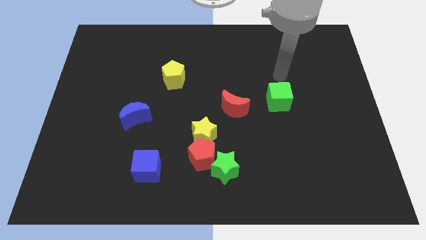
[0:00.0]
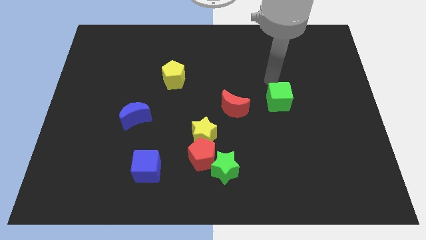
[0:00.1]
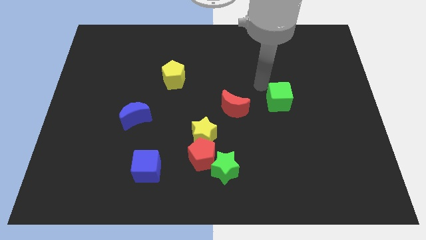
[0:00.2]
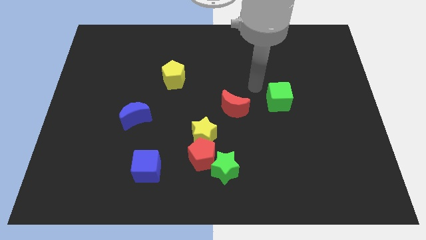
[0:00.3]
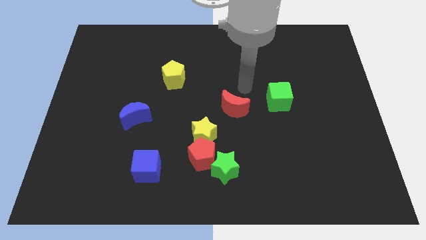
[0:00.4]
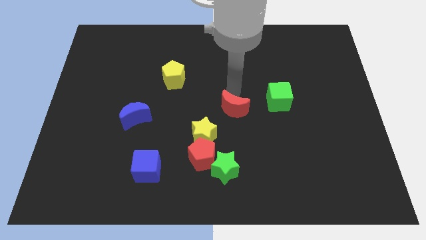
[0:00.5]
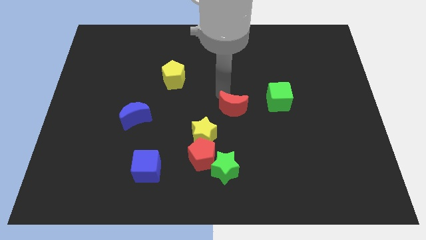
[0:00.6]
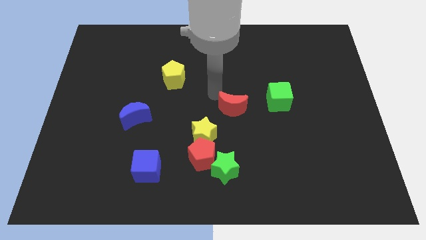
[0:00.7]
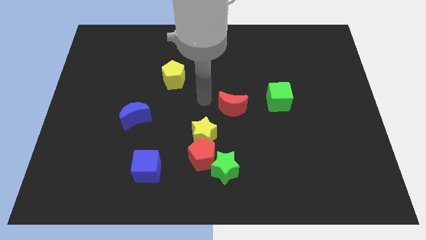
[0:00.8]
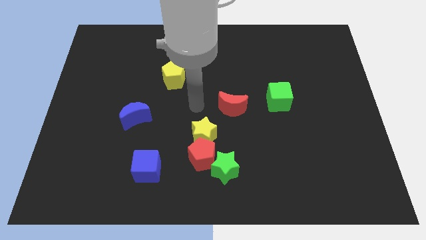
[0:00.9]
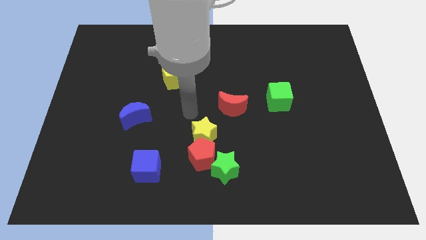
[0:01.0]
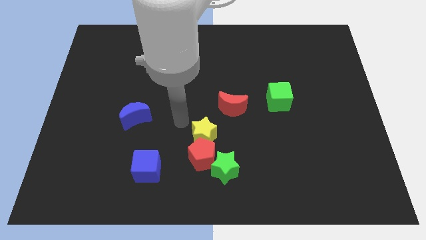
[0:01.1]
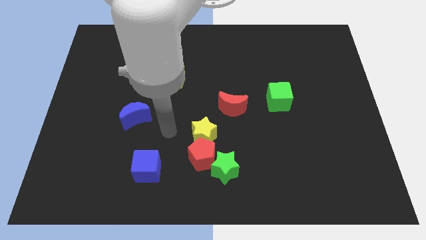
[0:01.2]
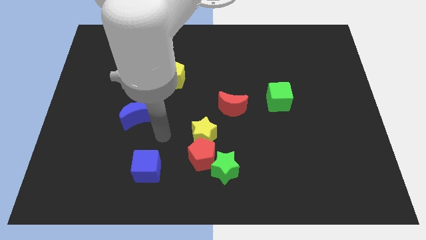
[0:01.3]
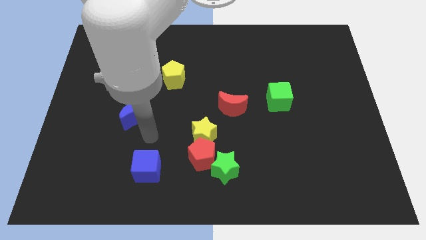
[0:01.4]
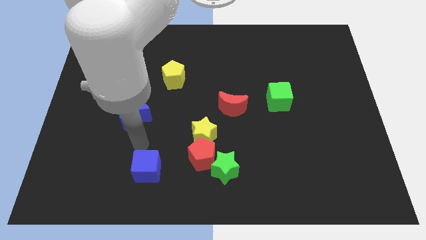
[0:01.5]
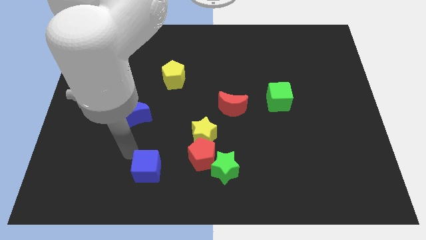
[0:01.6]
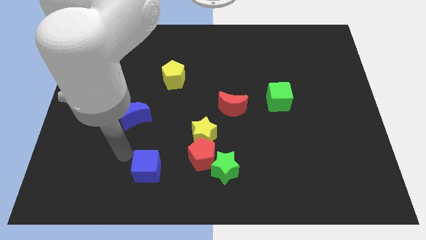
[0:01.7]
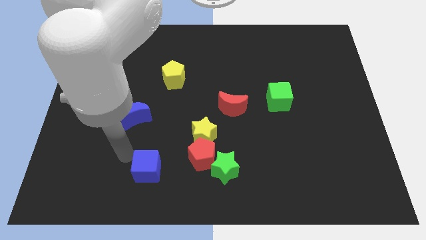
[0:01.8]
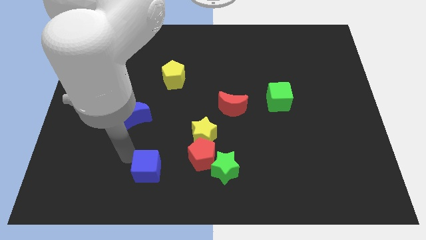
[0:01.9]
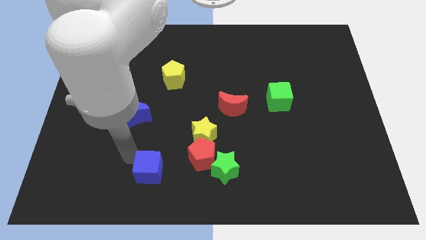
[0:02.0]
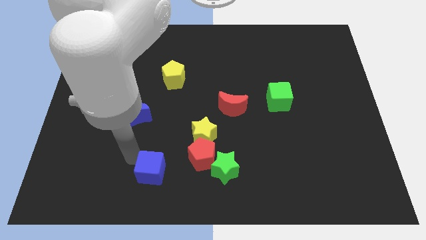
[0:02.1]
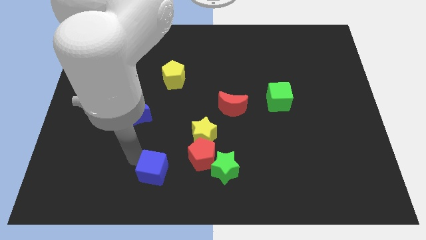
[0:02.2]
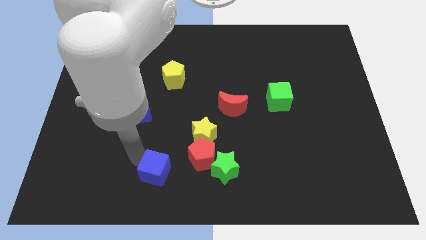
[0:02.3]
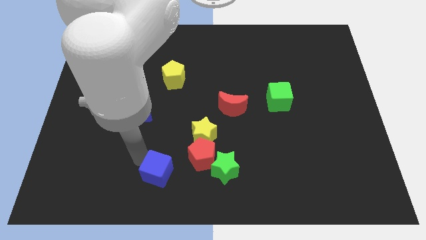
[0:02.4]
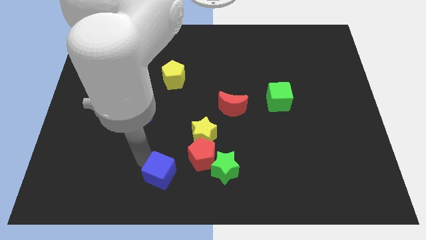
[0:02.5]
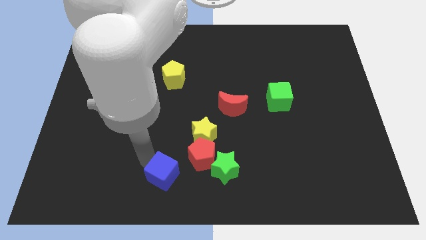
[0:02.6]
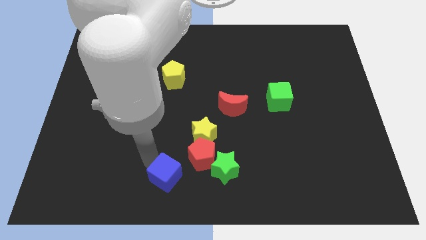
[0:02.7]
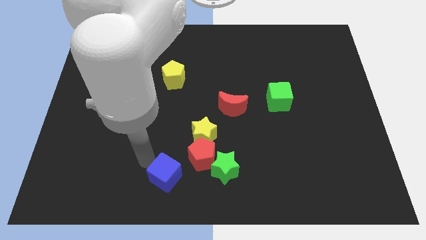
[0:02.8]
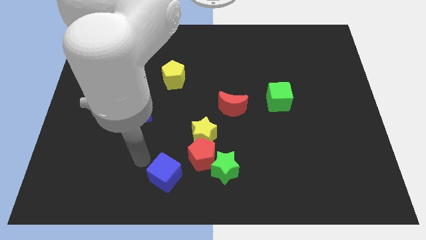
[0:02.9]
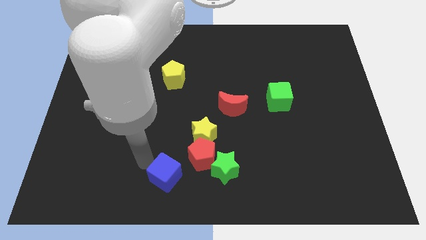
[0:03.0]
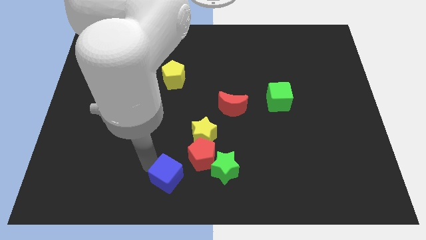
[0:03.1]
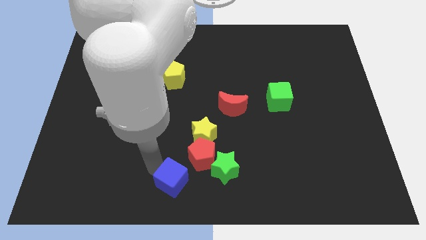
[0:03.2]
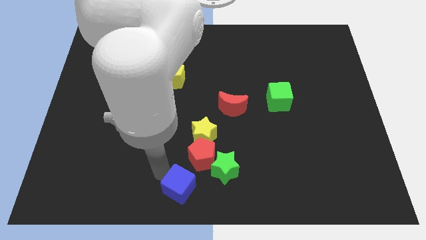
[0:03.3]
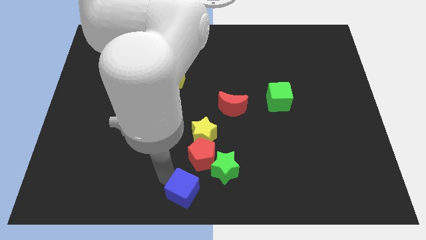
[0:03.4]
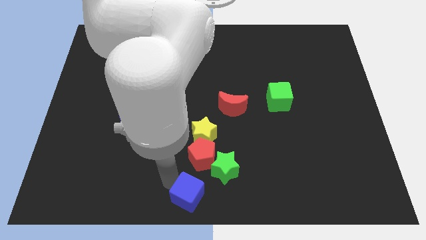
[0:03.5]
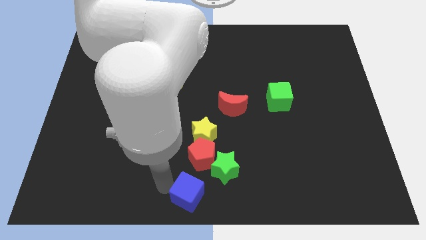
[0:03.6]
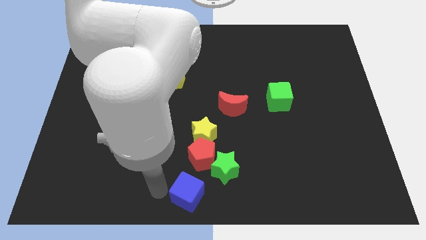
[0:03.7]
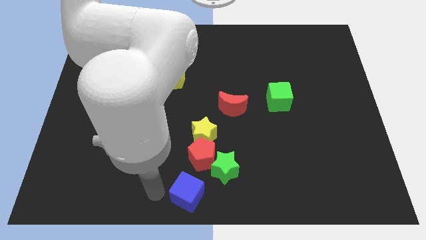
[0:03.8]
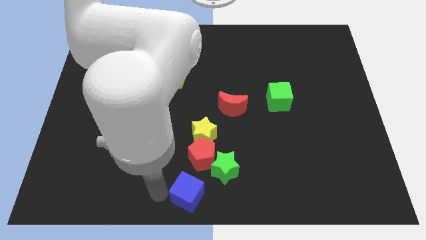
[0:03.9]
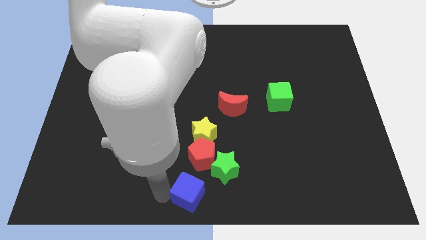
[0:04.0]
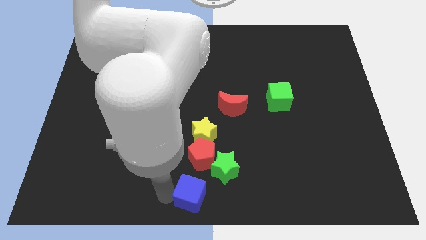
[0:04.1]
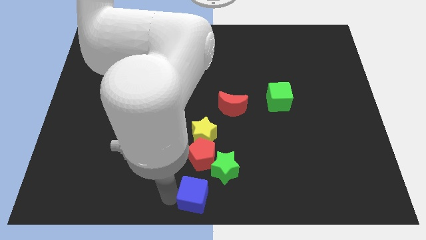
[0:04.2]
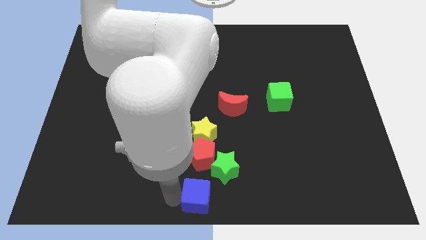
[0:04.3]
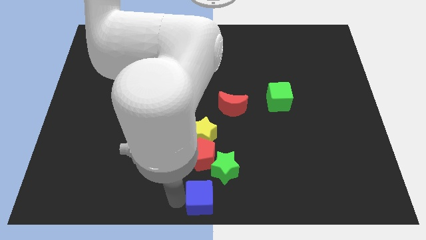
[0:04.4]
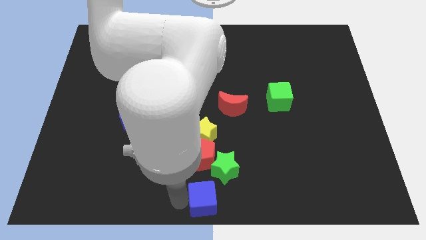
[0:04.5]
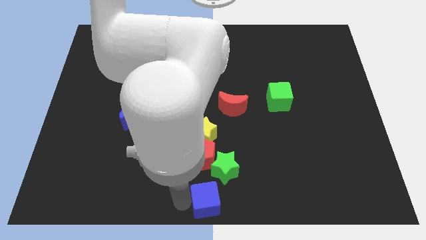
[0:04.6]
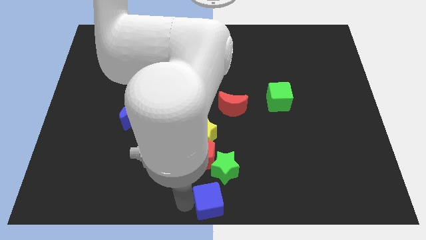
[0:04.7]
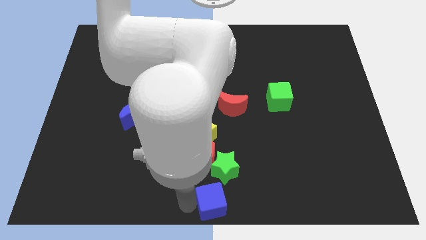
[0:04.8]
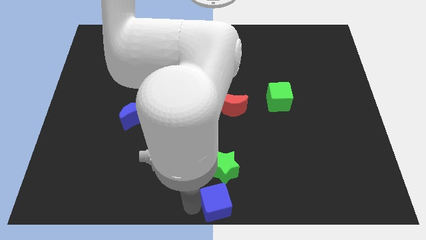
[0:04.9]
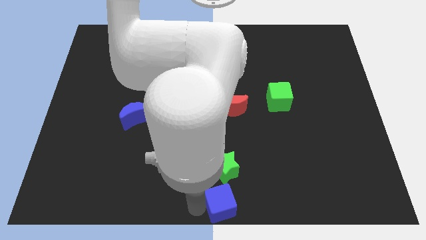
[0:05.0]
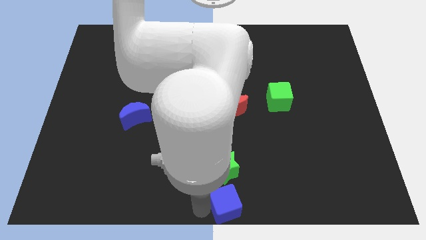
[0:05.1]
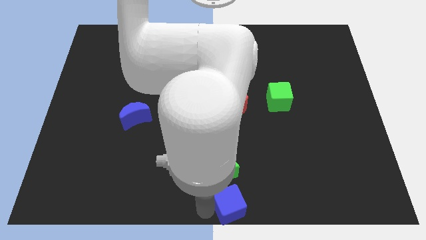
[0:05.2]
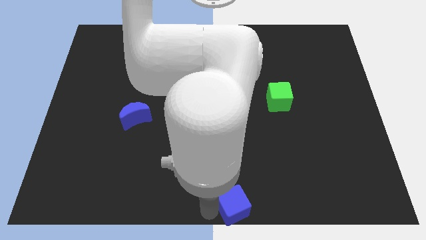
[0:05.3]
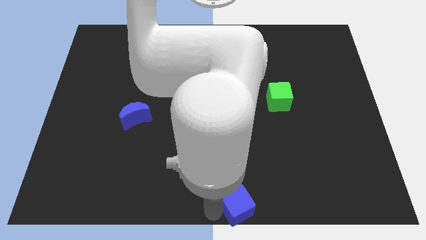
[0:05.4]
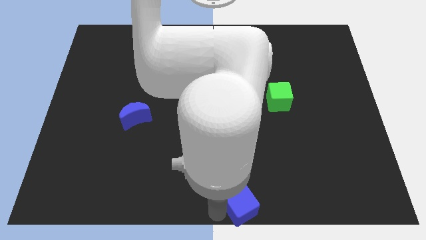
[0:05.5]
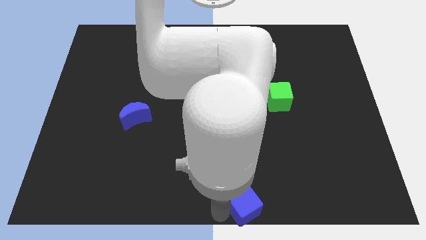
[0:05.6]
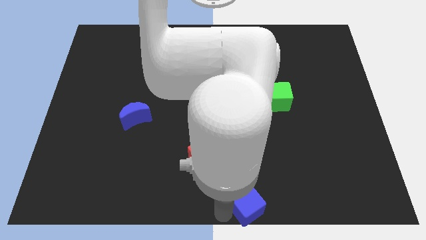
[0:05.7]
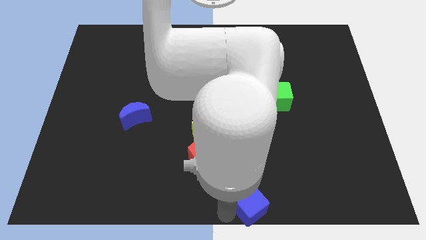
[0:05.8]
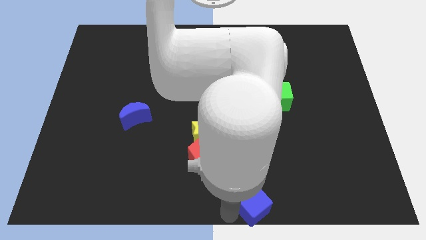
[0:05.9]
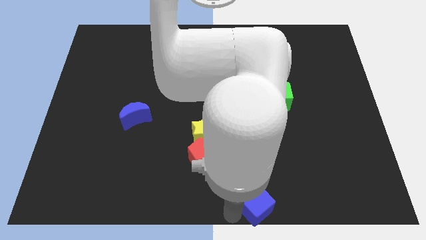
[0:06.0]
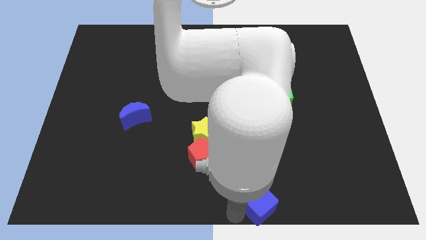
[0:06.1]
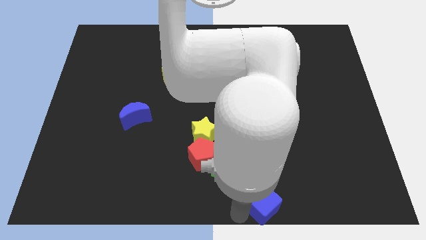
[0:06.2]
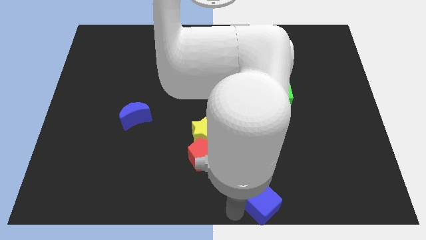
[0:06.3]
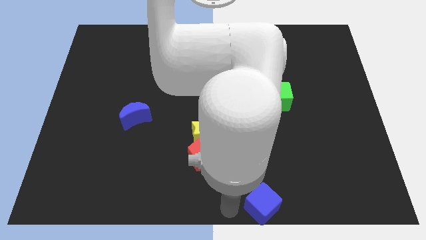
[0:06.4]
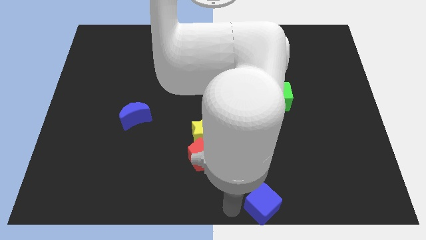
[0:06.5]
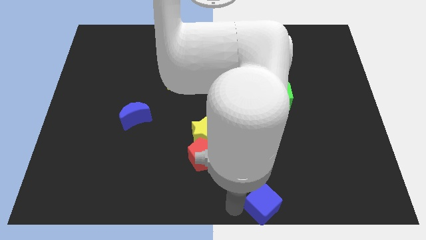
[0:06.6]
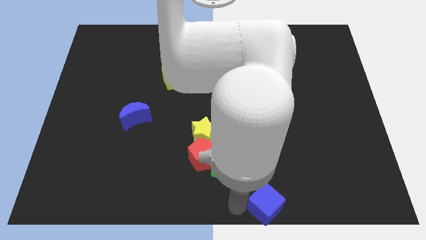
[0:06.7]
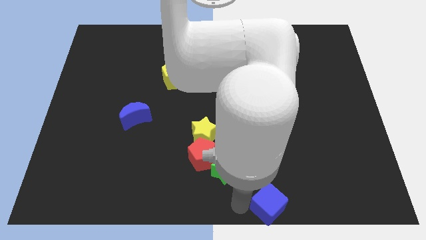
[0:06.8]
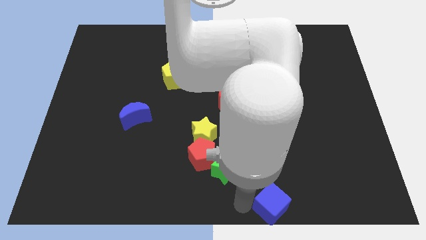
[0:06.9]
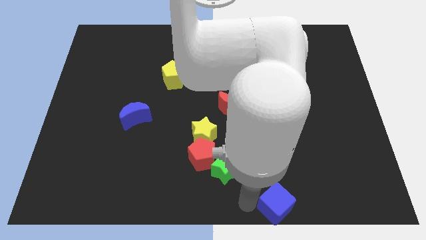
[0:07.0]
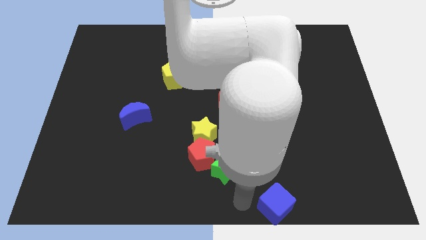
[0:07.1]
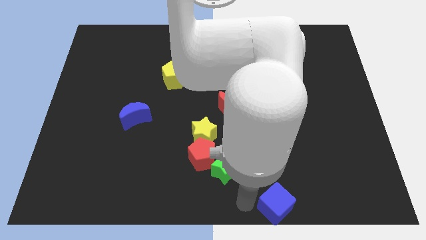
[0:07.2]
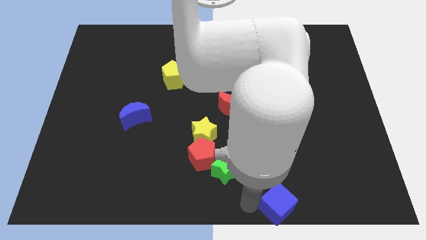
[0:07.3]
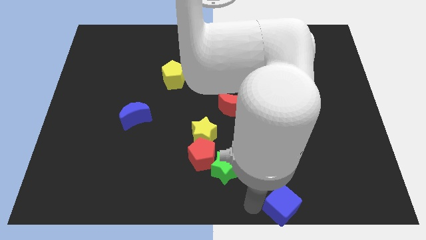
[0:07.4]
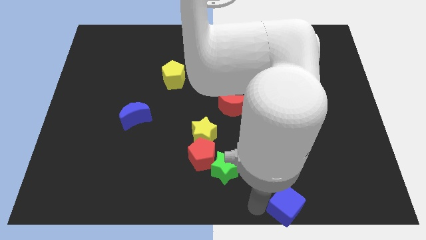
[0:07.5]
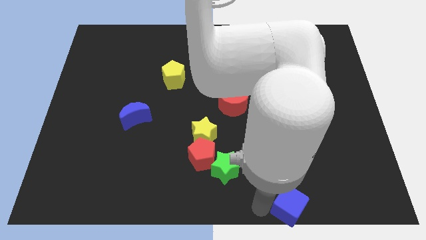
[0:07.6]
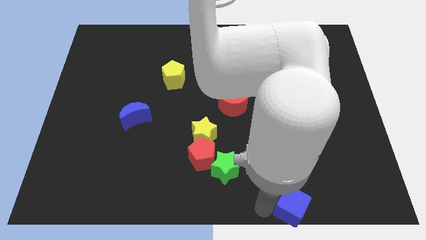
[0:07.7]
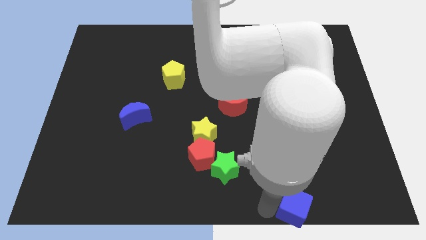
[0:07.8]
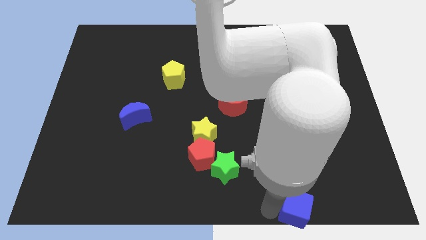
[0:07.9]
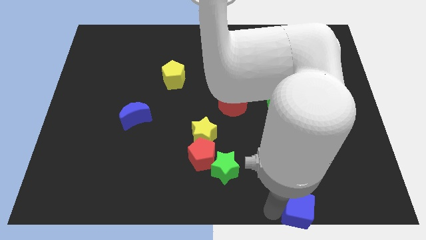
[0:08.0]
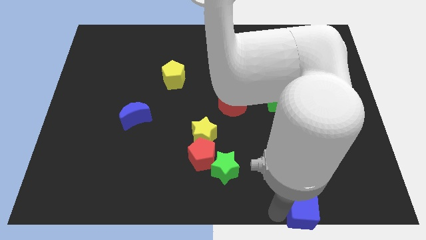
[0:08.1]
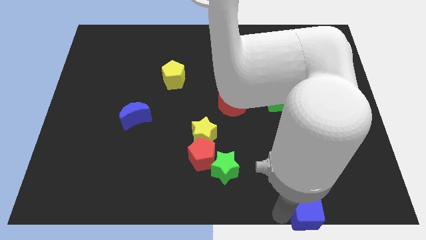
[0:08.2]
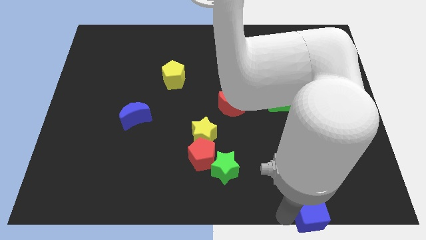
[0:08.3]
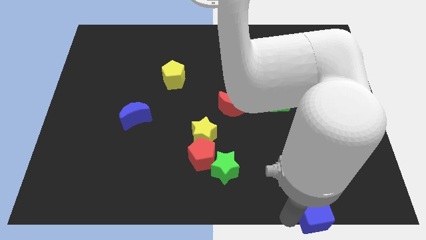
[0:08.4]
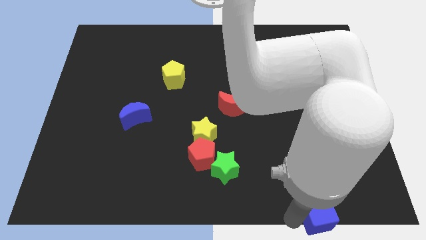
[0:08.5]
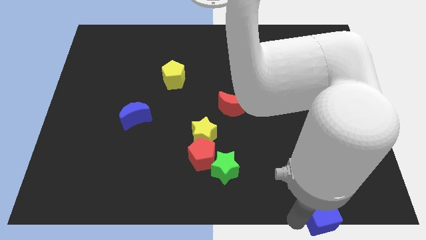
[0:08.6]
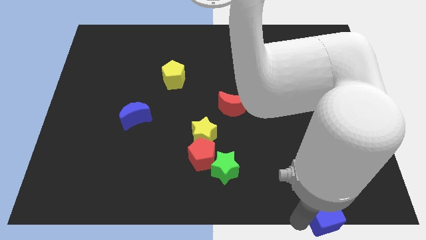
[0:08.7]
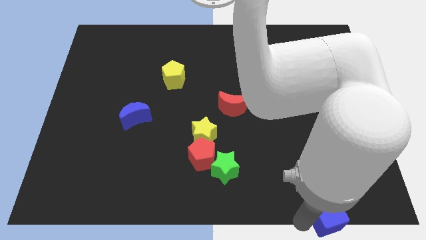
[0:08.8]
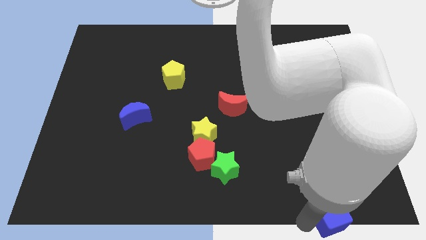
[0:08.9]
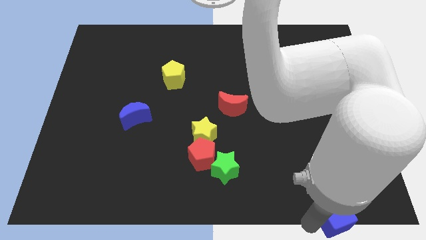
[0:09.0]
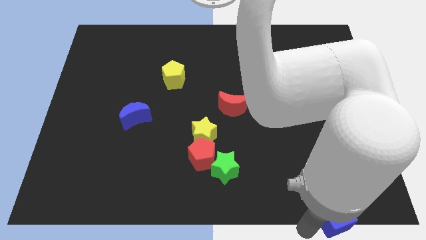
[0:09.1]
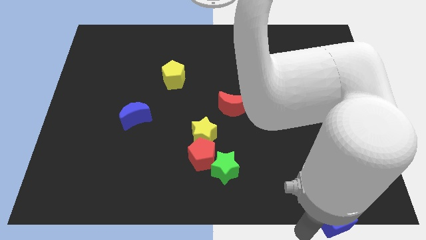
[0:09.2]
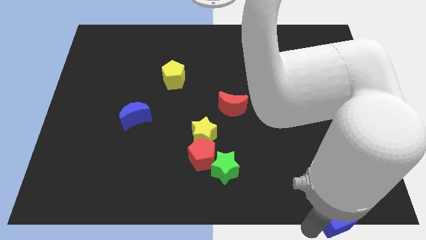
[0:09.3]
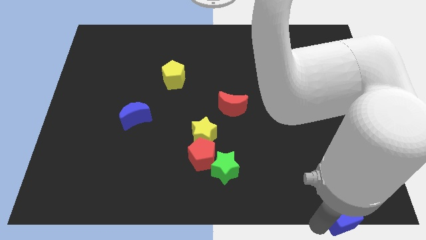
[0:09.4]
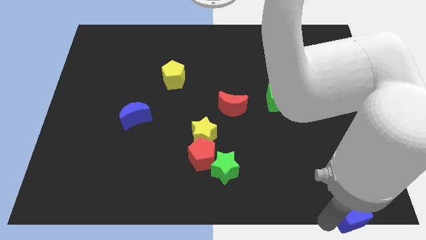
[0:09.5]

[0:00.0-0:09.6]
push the blue cube to the lower right corner
